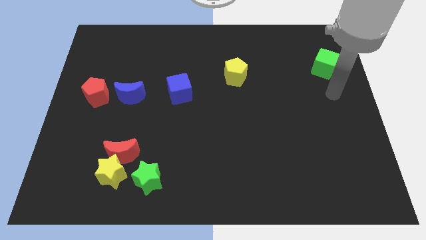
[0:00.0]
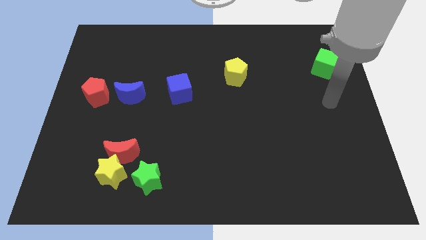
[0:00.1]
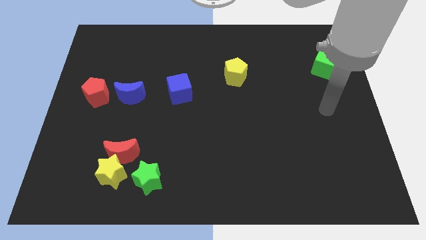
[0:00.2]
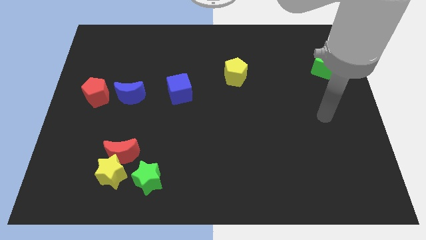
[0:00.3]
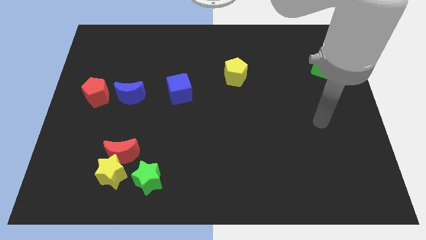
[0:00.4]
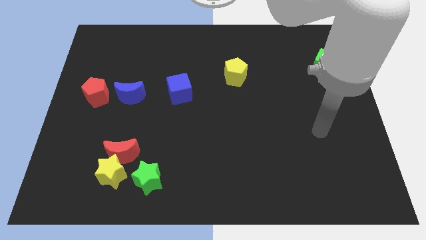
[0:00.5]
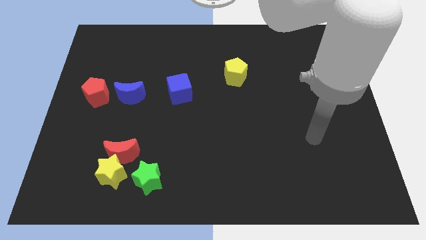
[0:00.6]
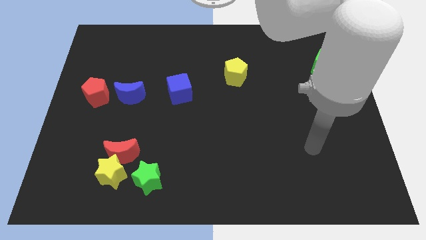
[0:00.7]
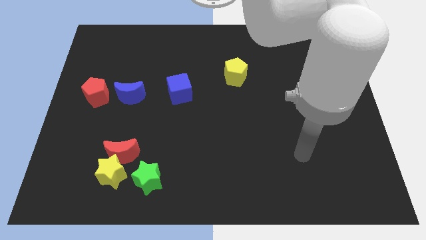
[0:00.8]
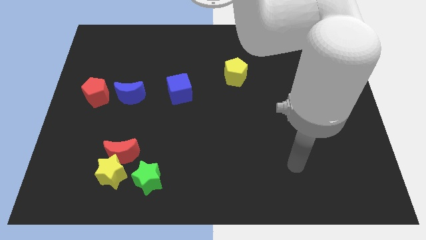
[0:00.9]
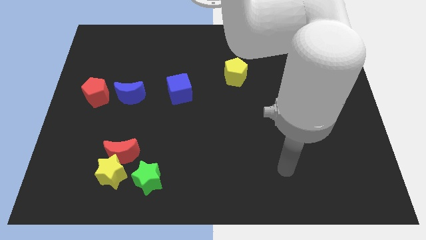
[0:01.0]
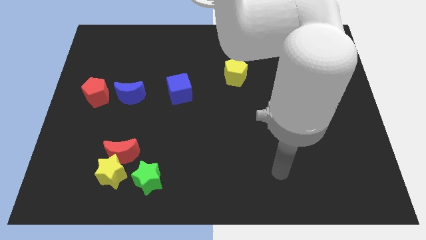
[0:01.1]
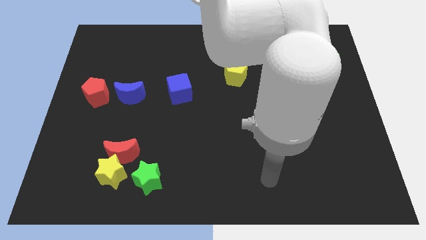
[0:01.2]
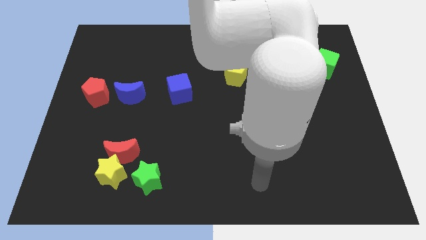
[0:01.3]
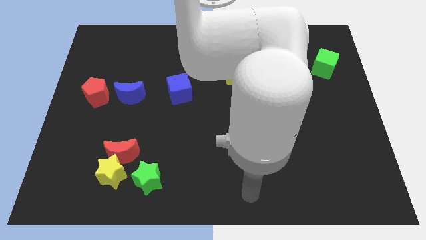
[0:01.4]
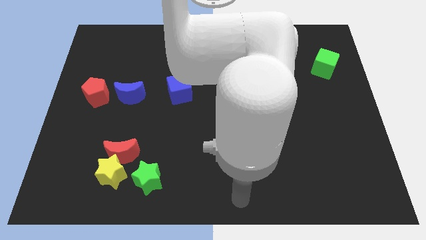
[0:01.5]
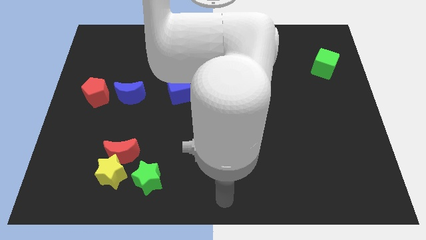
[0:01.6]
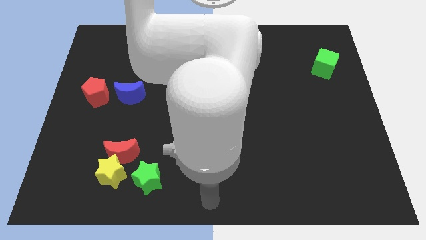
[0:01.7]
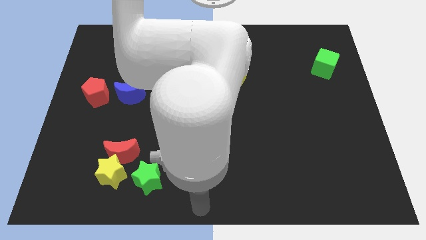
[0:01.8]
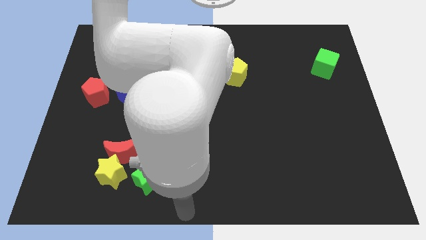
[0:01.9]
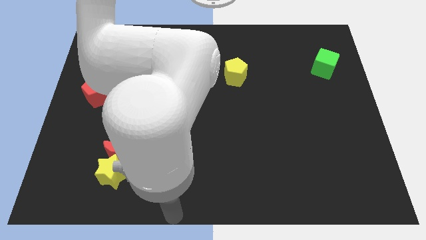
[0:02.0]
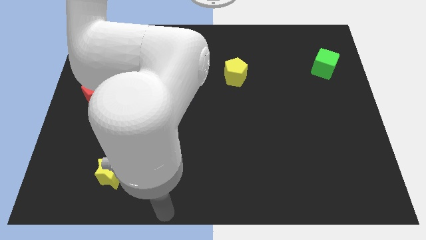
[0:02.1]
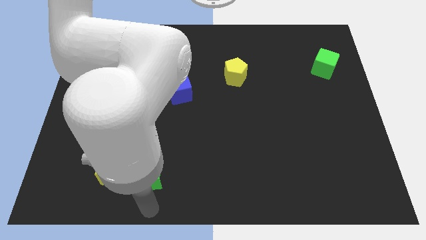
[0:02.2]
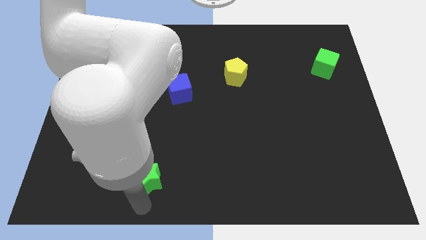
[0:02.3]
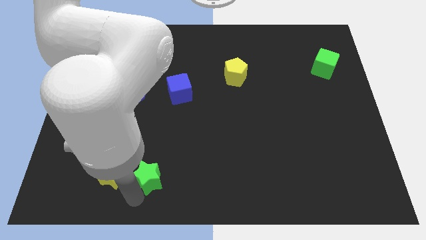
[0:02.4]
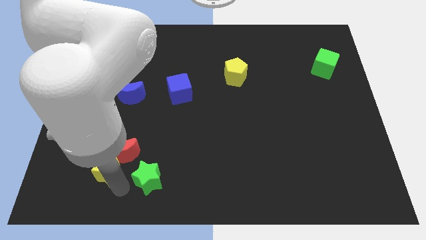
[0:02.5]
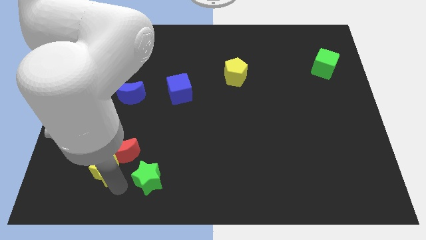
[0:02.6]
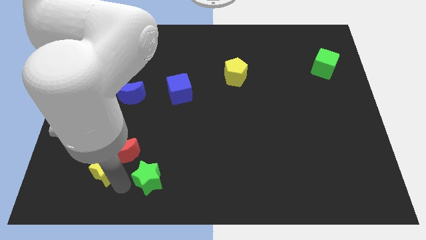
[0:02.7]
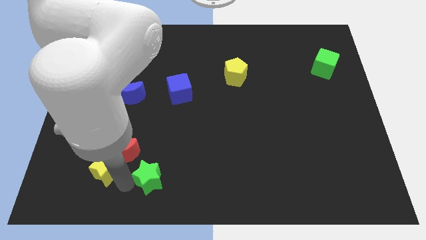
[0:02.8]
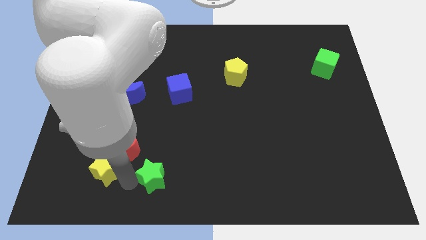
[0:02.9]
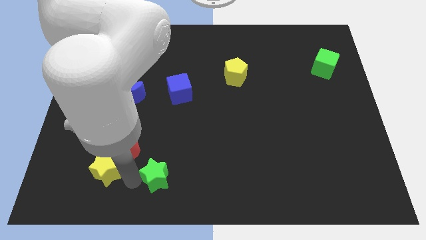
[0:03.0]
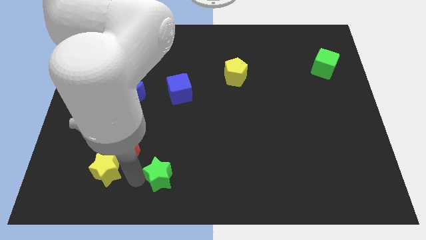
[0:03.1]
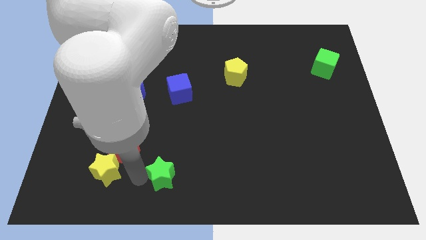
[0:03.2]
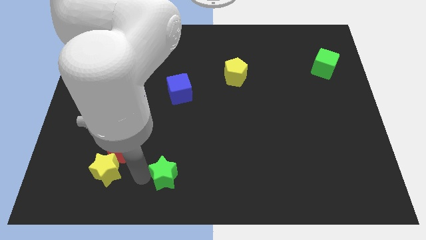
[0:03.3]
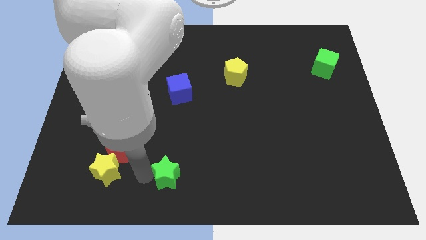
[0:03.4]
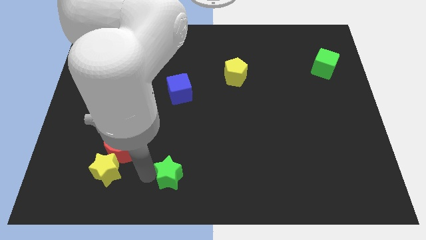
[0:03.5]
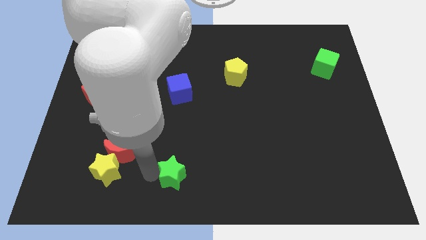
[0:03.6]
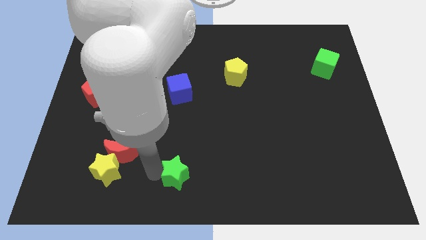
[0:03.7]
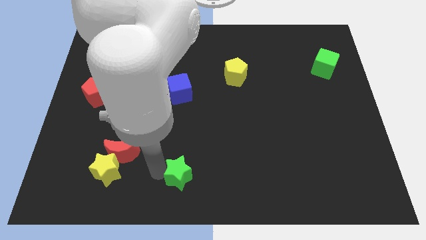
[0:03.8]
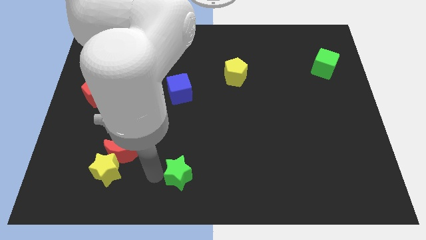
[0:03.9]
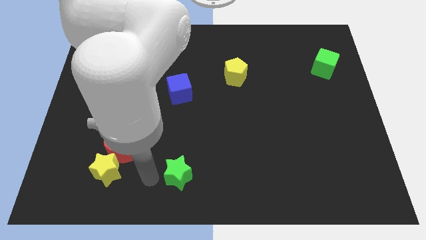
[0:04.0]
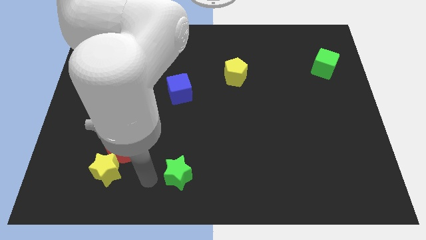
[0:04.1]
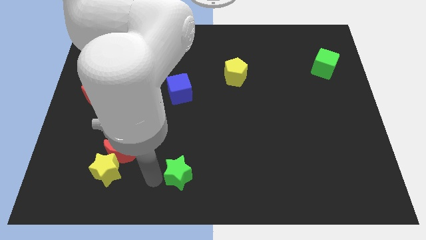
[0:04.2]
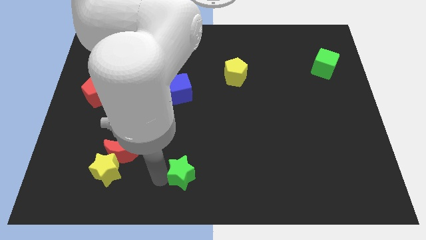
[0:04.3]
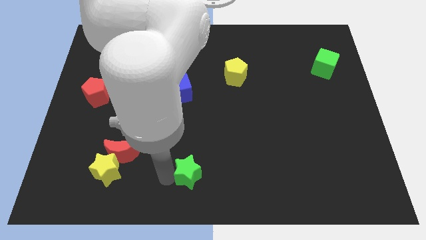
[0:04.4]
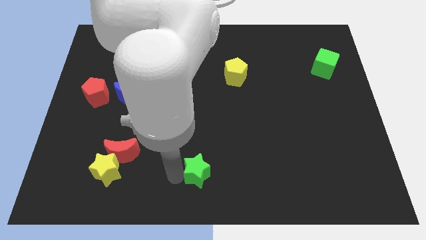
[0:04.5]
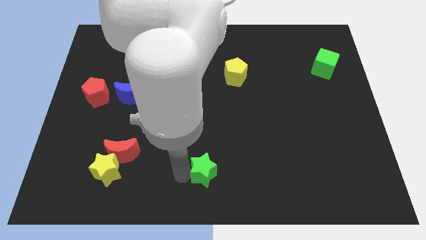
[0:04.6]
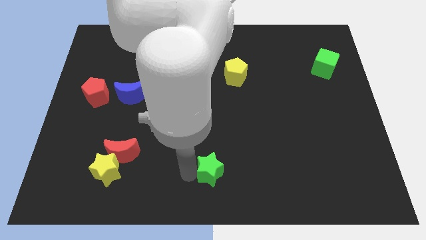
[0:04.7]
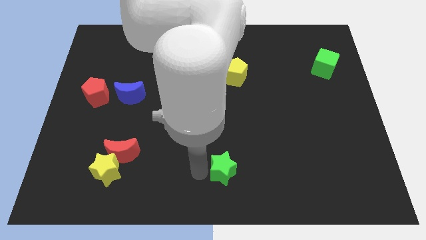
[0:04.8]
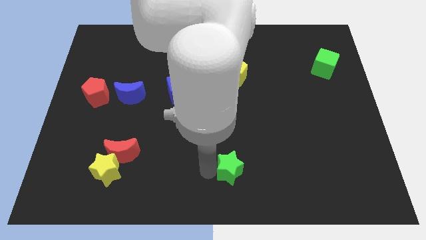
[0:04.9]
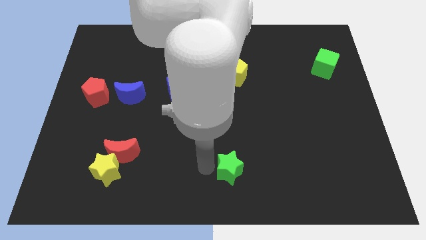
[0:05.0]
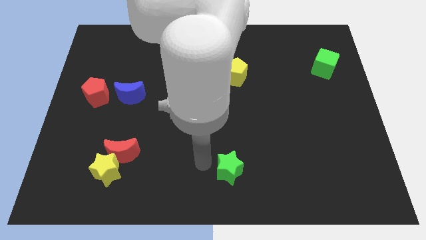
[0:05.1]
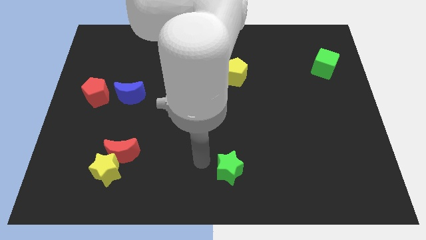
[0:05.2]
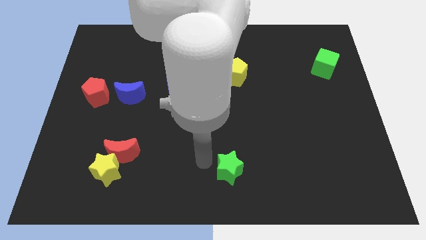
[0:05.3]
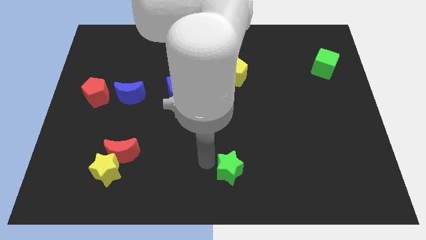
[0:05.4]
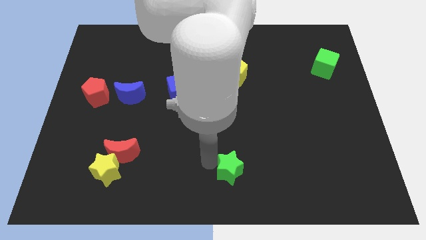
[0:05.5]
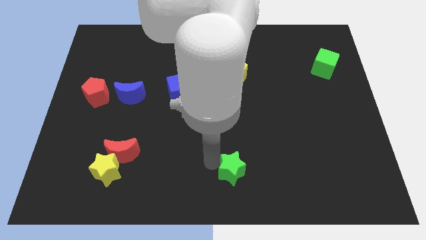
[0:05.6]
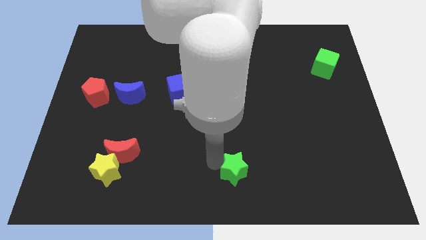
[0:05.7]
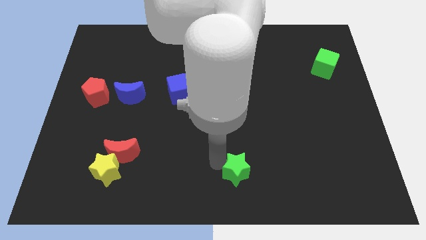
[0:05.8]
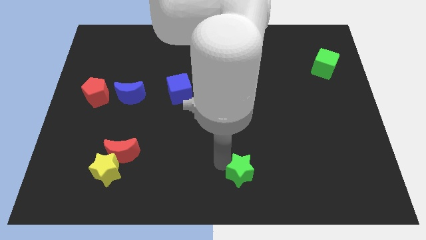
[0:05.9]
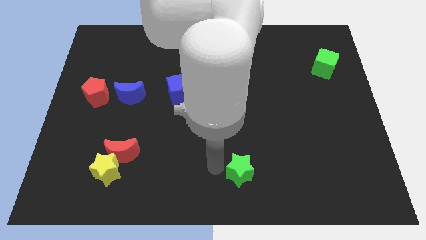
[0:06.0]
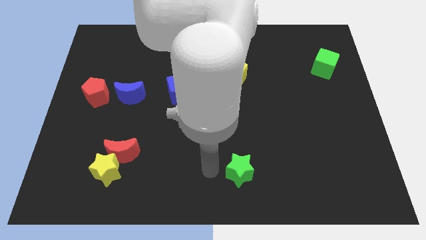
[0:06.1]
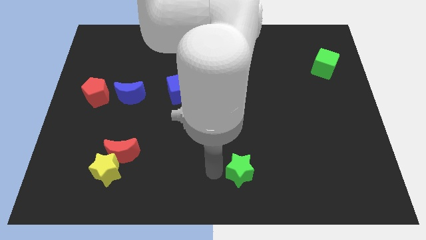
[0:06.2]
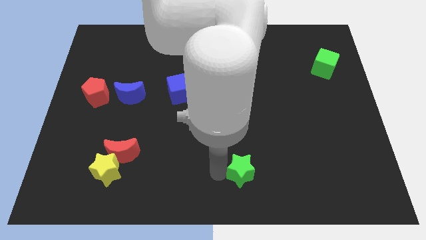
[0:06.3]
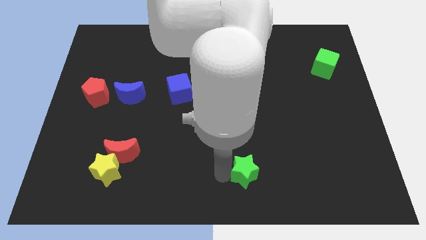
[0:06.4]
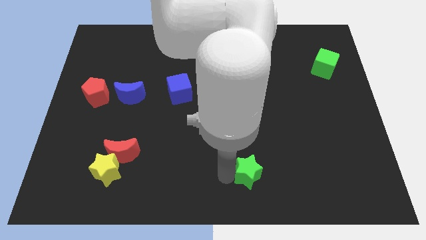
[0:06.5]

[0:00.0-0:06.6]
push the green star to the right

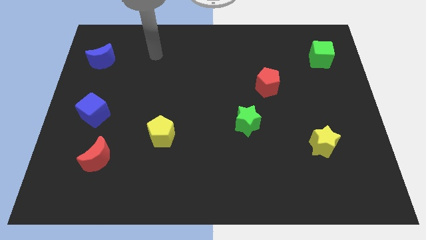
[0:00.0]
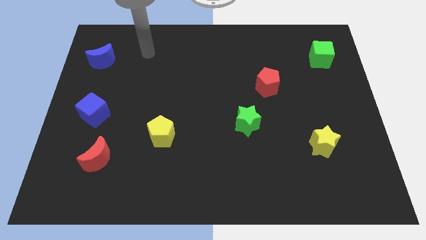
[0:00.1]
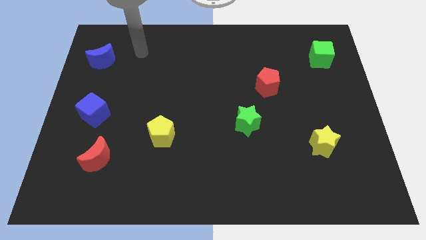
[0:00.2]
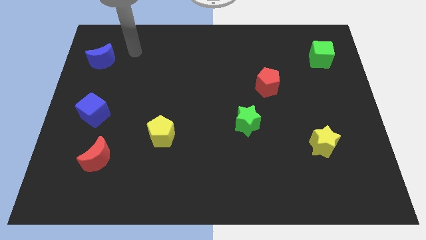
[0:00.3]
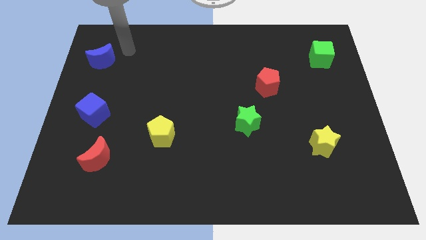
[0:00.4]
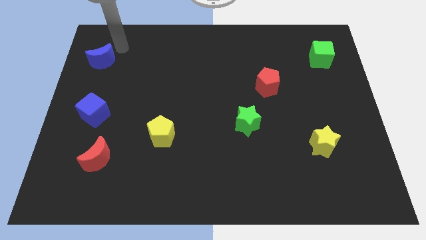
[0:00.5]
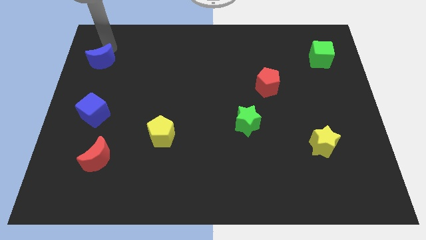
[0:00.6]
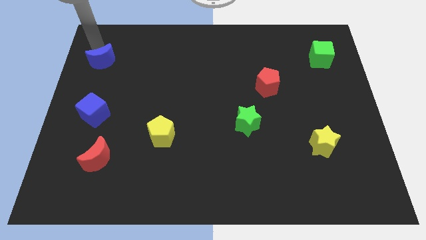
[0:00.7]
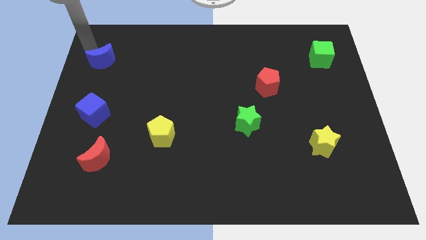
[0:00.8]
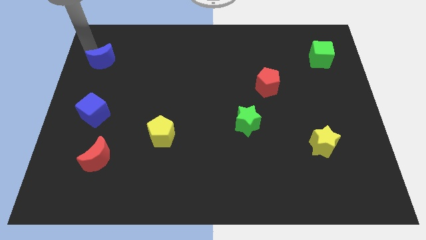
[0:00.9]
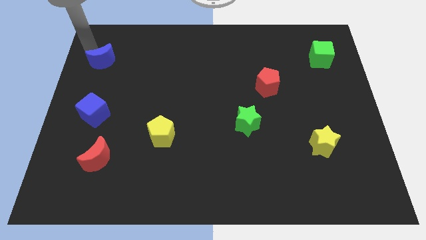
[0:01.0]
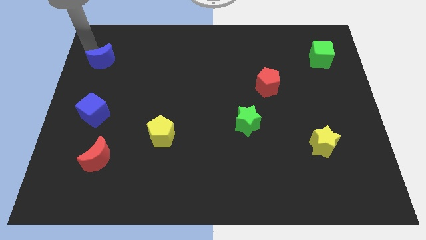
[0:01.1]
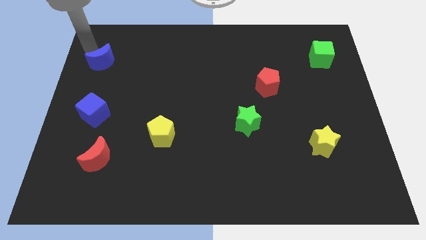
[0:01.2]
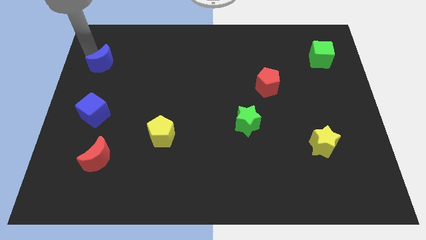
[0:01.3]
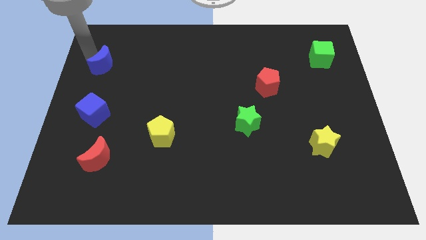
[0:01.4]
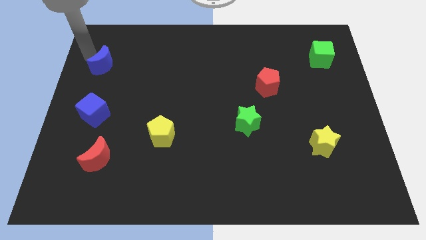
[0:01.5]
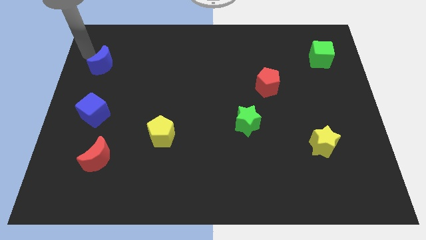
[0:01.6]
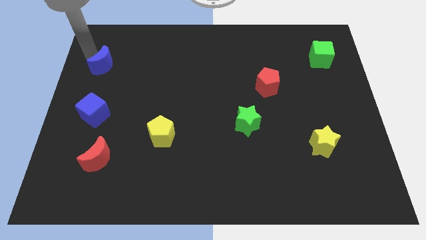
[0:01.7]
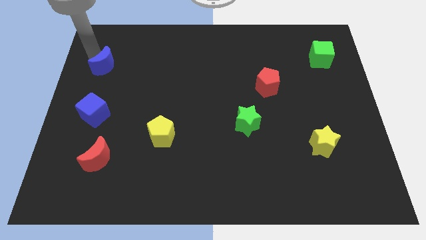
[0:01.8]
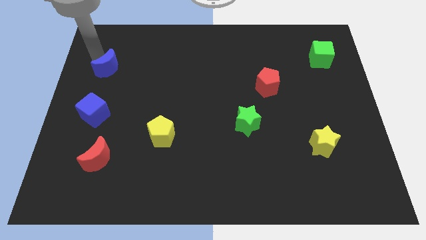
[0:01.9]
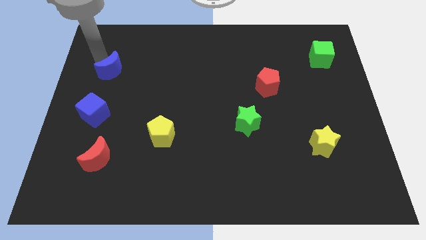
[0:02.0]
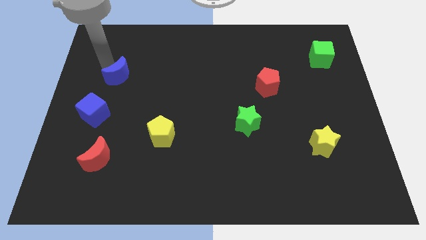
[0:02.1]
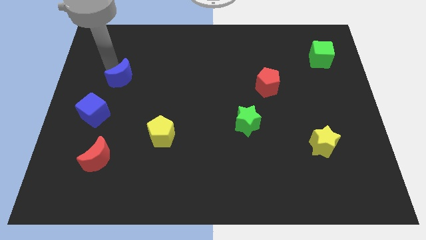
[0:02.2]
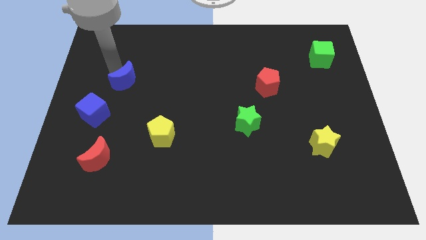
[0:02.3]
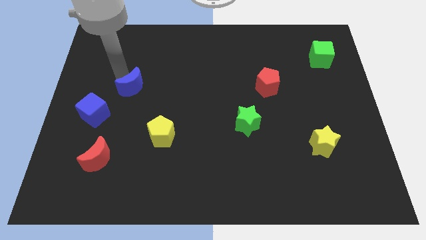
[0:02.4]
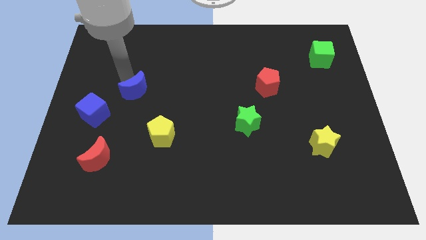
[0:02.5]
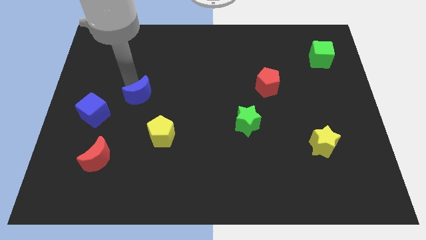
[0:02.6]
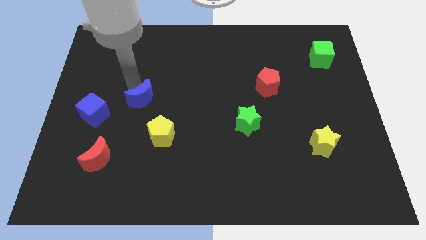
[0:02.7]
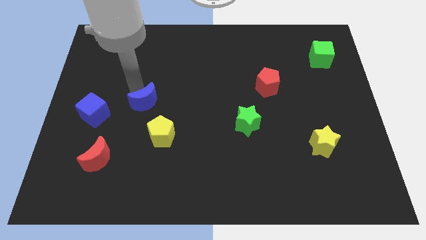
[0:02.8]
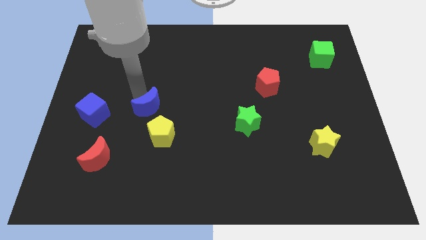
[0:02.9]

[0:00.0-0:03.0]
slide the blue moon diagonally down and right
